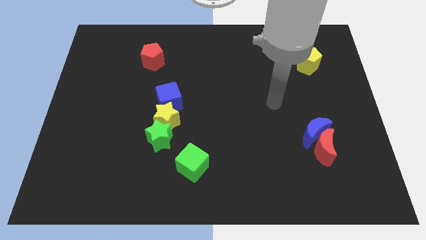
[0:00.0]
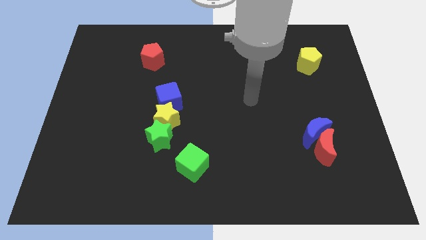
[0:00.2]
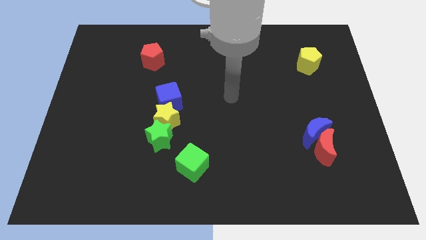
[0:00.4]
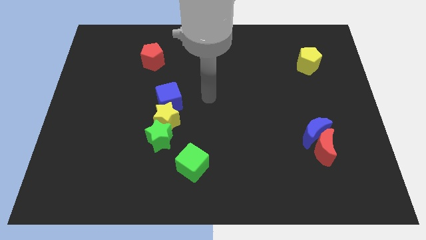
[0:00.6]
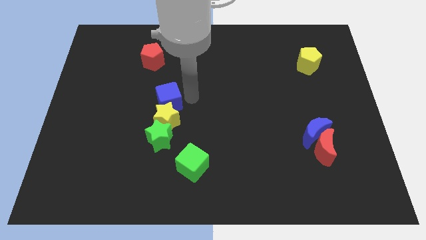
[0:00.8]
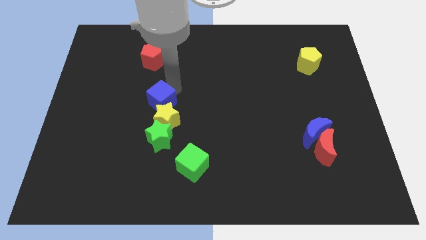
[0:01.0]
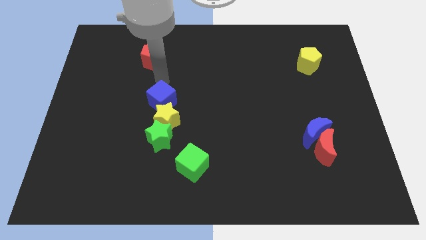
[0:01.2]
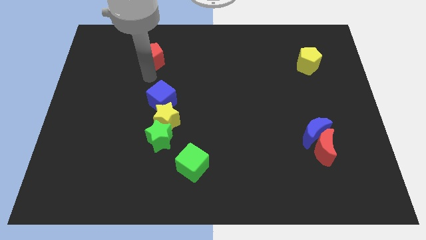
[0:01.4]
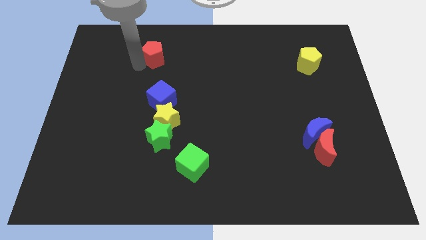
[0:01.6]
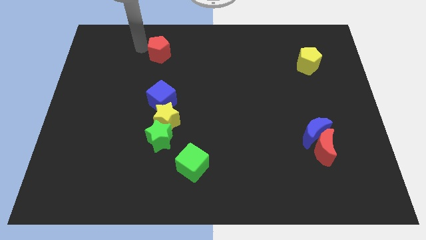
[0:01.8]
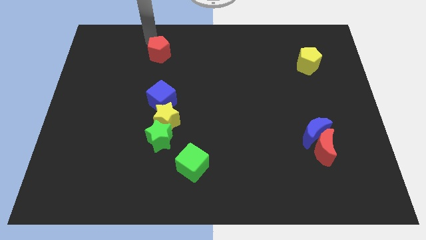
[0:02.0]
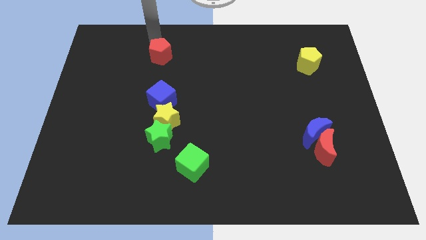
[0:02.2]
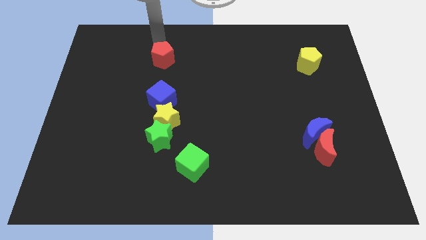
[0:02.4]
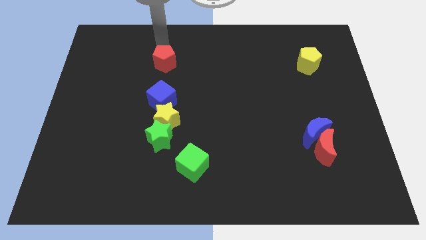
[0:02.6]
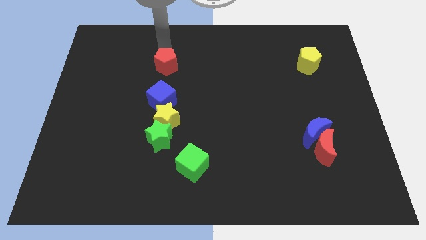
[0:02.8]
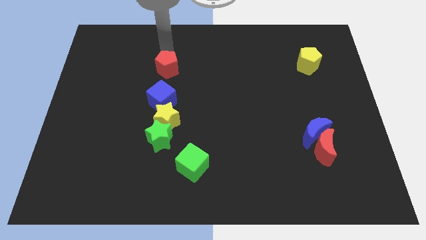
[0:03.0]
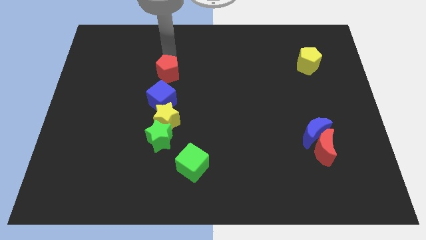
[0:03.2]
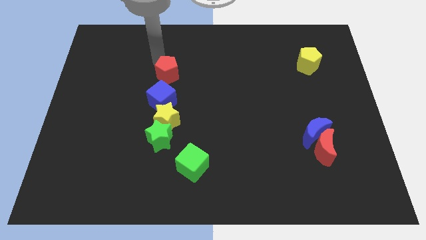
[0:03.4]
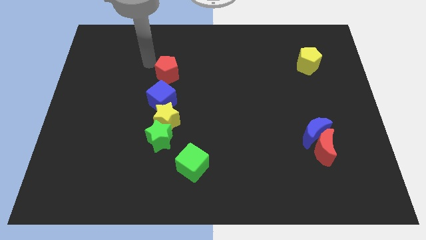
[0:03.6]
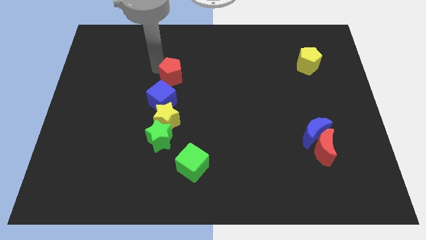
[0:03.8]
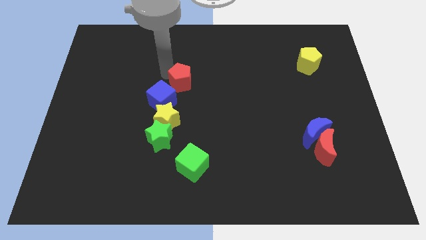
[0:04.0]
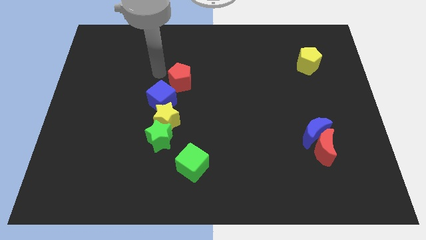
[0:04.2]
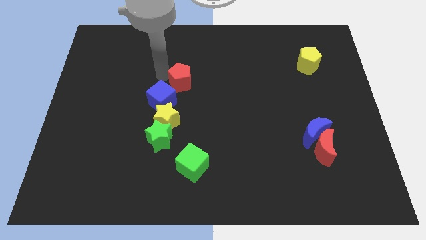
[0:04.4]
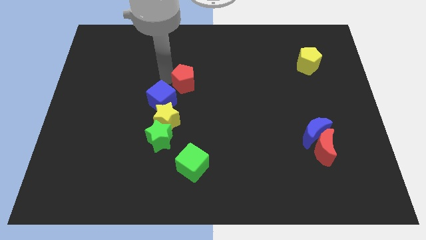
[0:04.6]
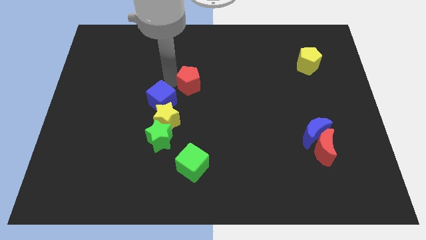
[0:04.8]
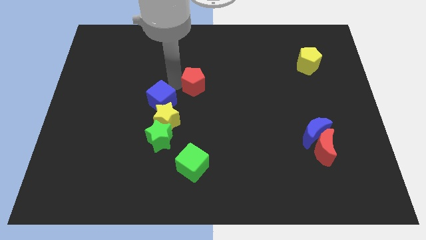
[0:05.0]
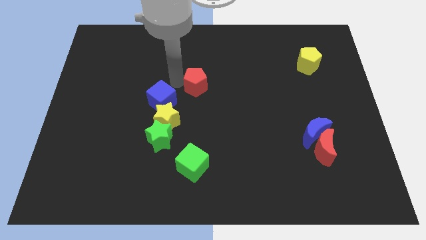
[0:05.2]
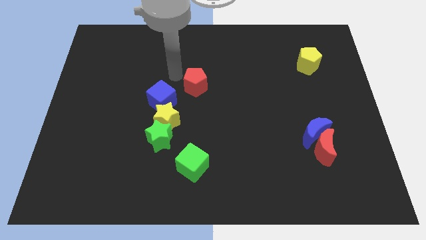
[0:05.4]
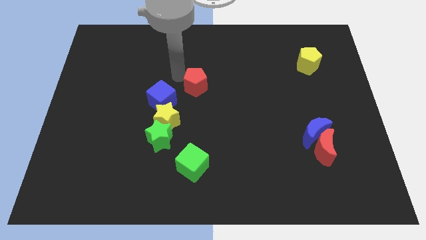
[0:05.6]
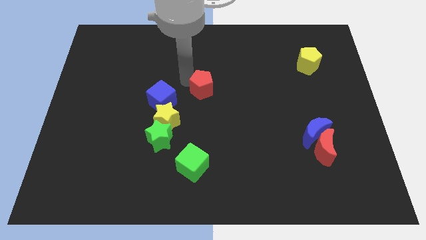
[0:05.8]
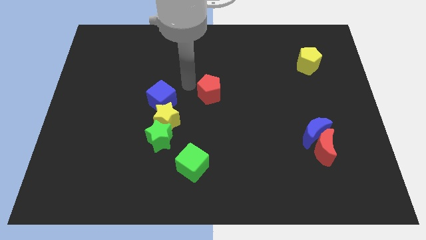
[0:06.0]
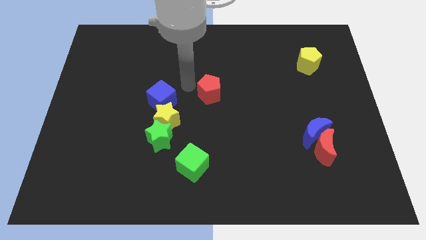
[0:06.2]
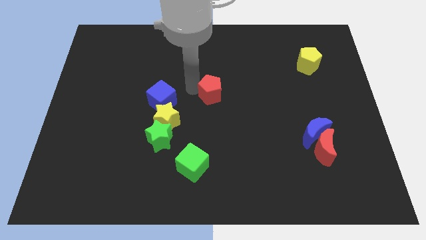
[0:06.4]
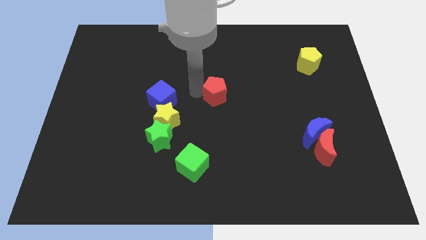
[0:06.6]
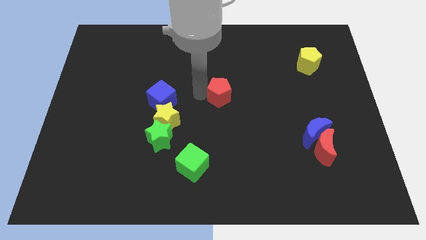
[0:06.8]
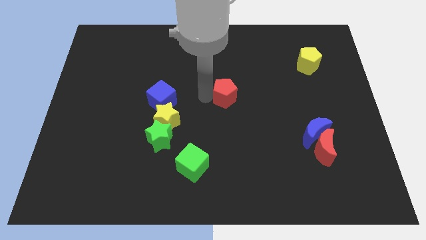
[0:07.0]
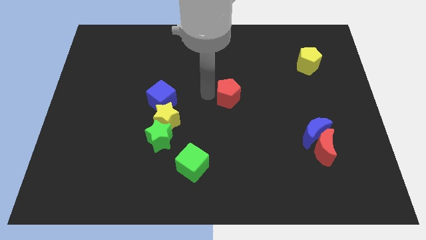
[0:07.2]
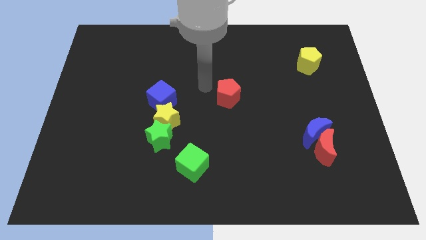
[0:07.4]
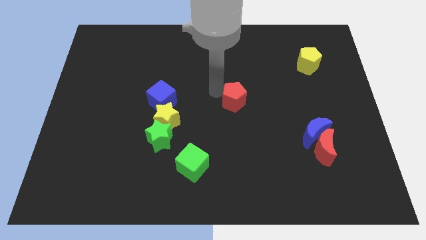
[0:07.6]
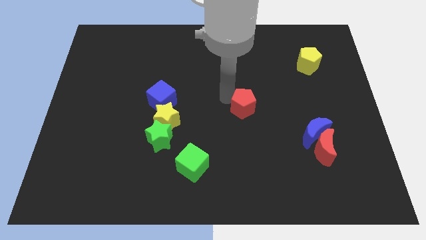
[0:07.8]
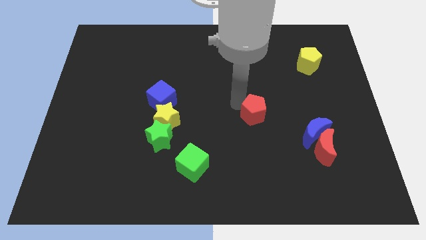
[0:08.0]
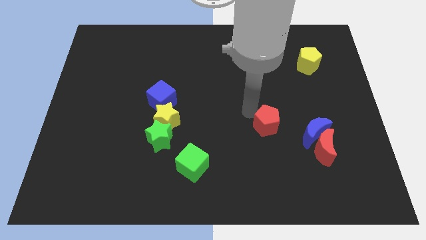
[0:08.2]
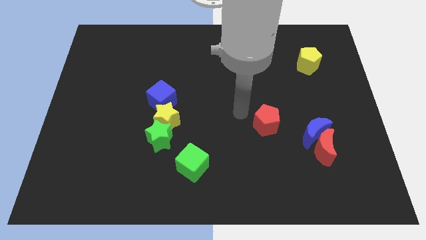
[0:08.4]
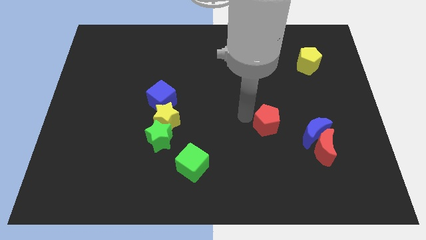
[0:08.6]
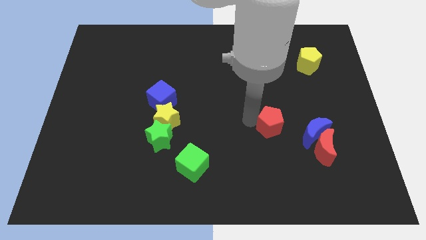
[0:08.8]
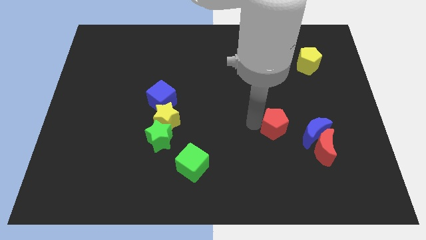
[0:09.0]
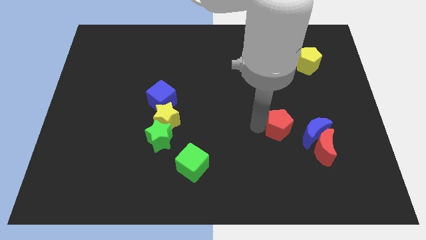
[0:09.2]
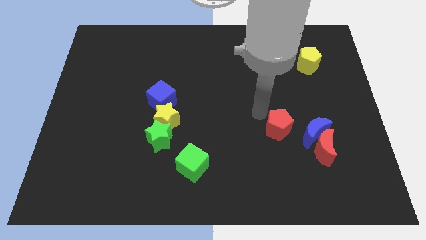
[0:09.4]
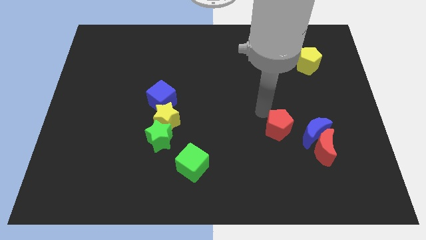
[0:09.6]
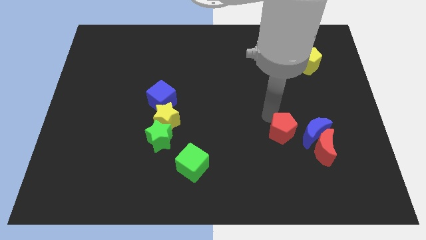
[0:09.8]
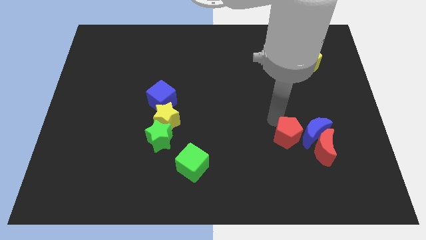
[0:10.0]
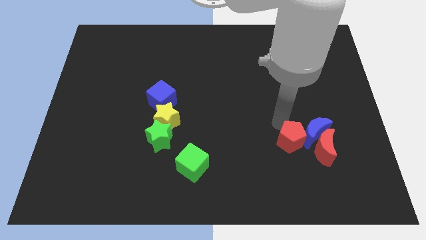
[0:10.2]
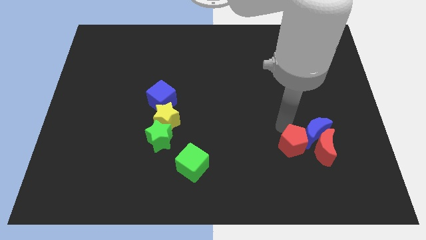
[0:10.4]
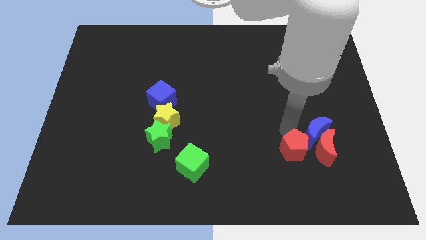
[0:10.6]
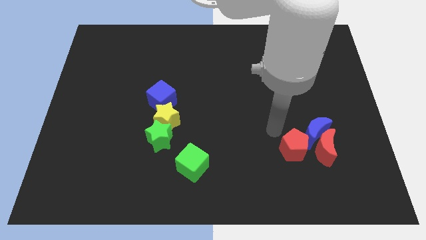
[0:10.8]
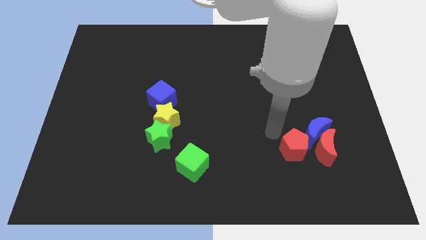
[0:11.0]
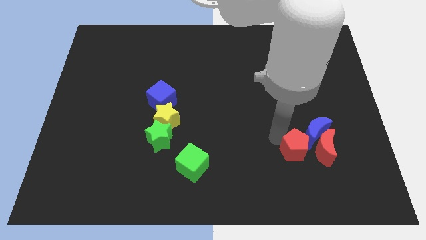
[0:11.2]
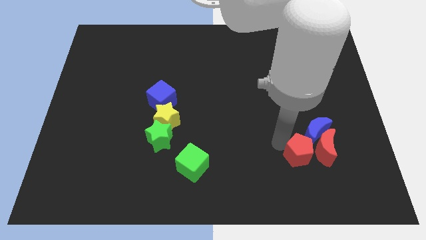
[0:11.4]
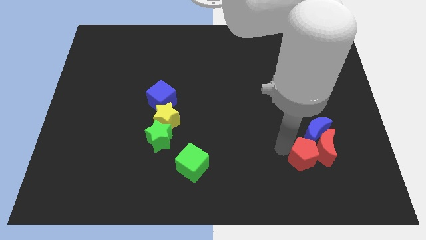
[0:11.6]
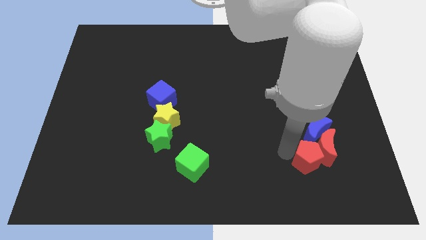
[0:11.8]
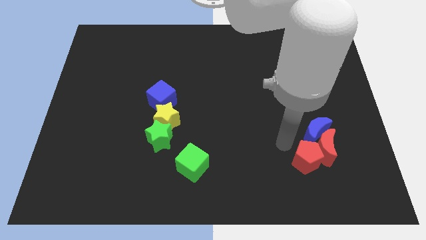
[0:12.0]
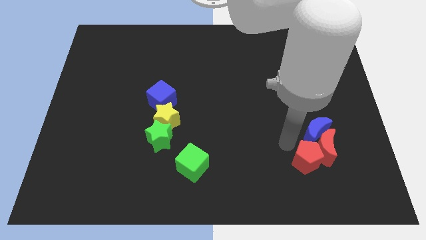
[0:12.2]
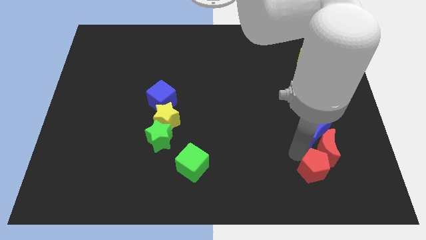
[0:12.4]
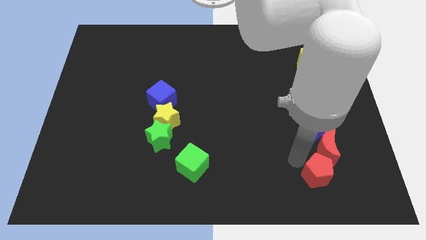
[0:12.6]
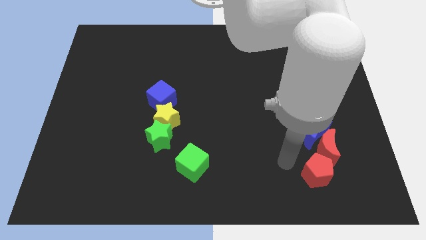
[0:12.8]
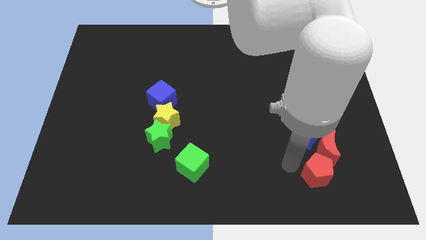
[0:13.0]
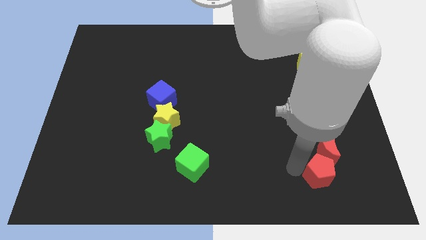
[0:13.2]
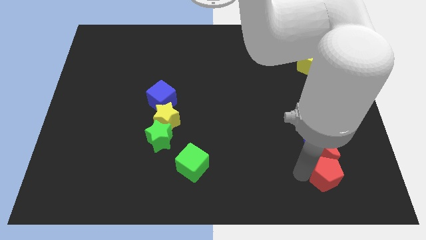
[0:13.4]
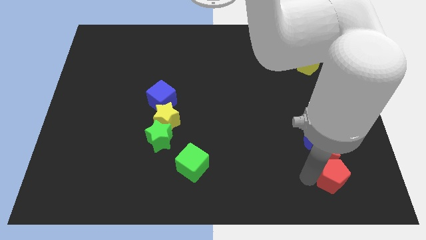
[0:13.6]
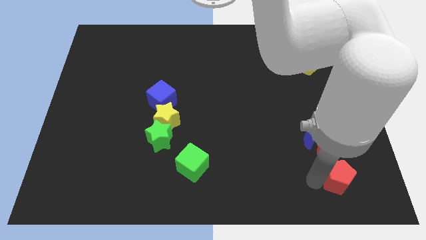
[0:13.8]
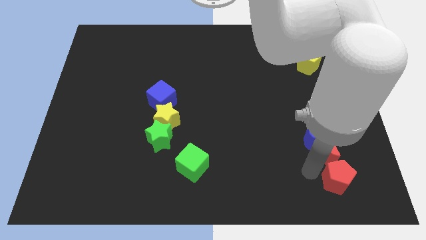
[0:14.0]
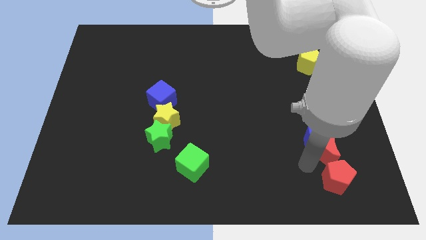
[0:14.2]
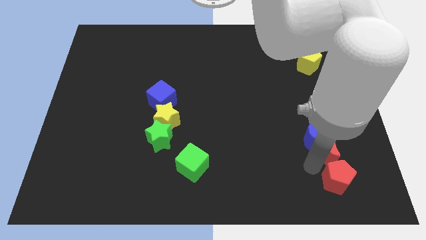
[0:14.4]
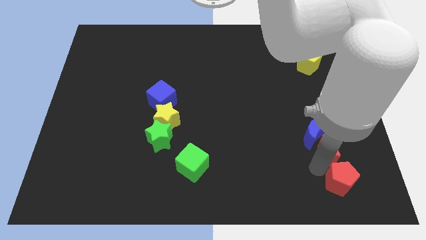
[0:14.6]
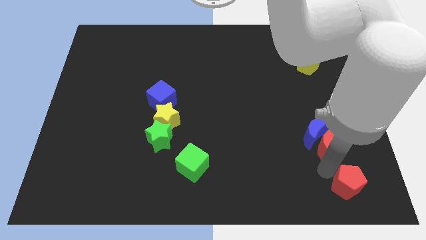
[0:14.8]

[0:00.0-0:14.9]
put the red pentagon to the bottom right of the board
